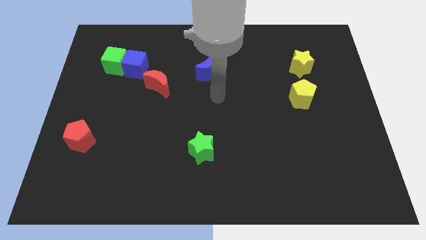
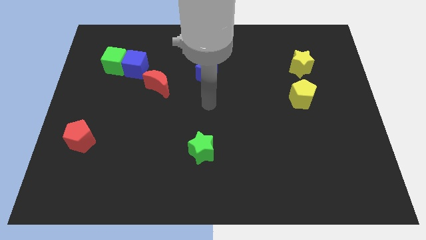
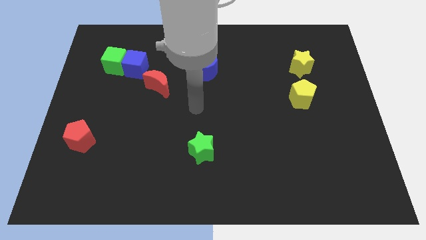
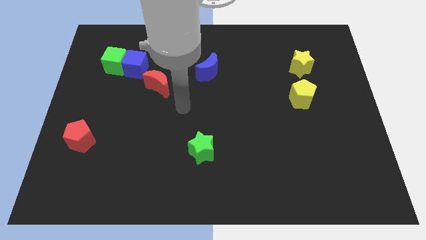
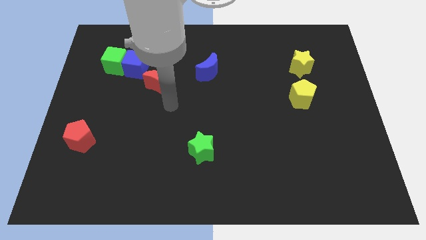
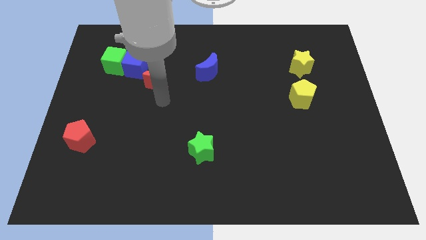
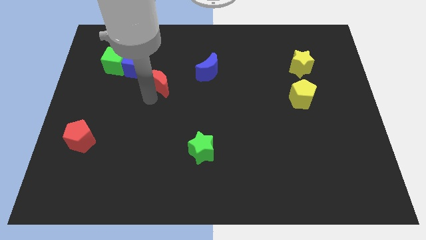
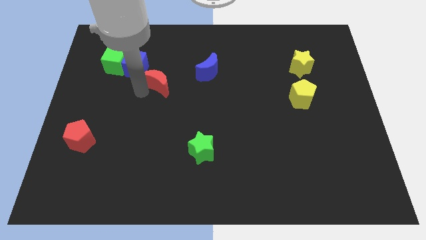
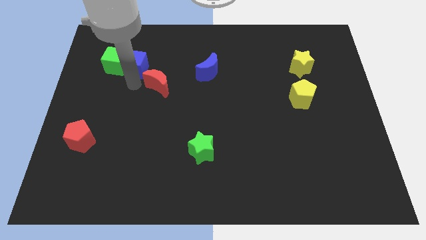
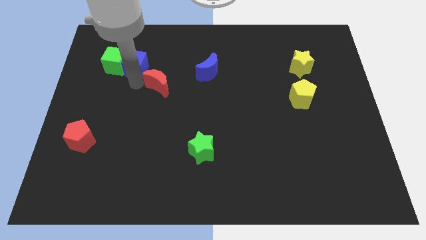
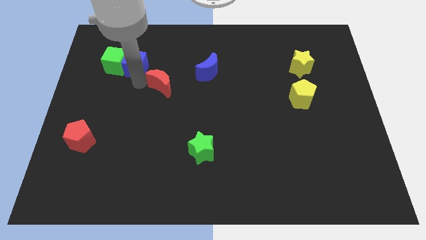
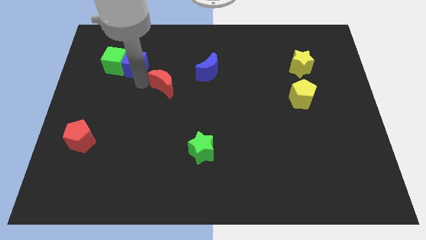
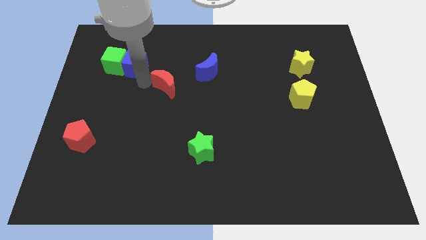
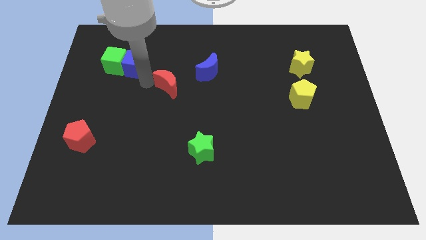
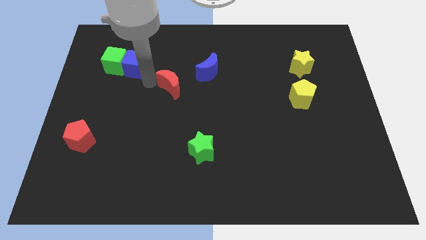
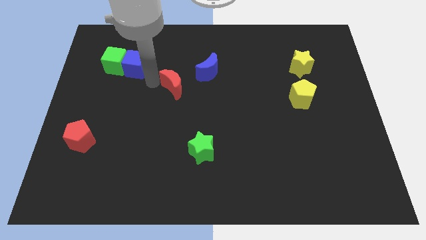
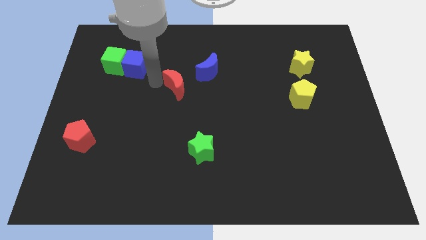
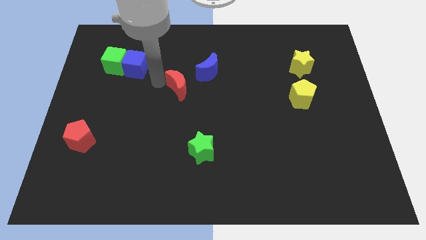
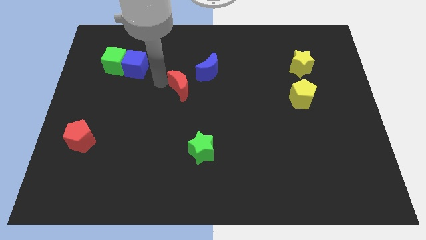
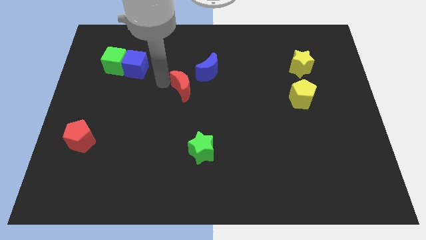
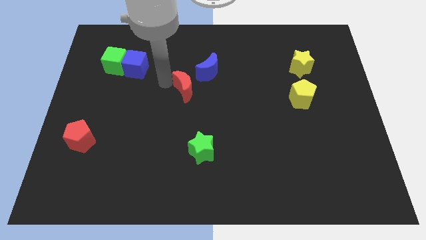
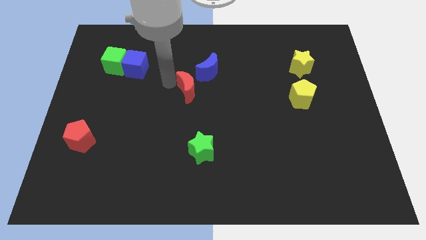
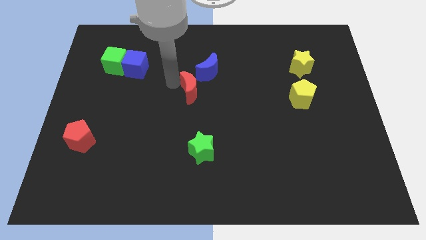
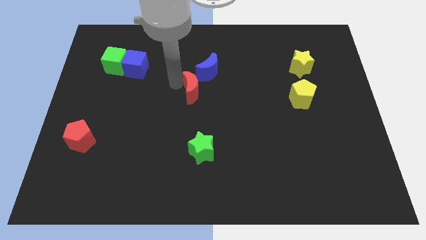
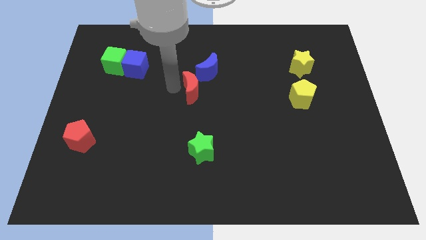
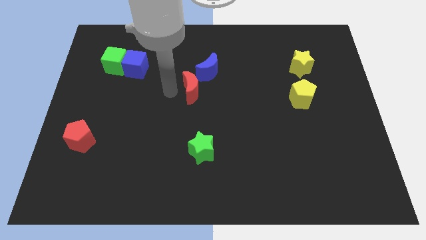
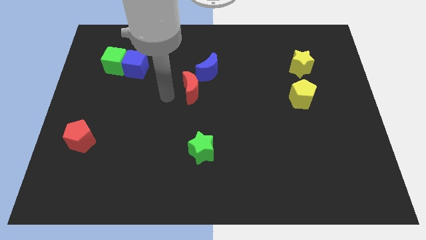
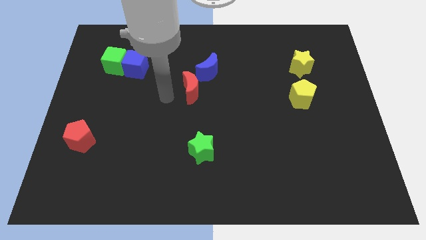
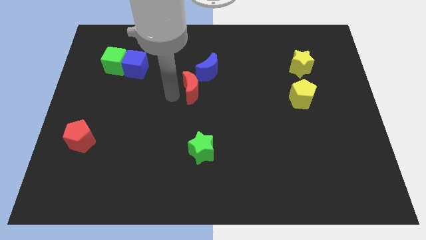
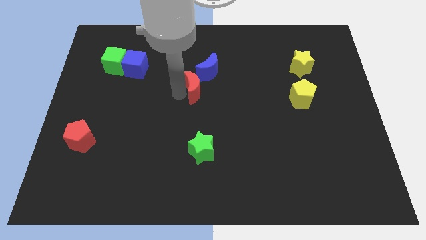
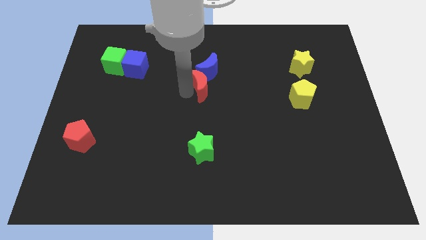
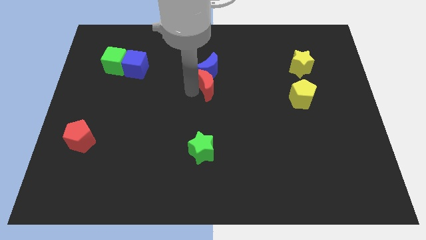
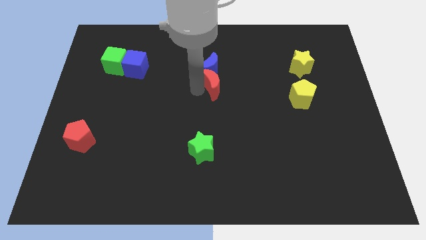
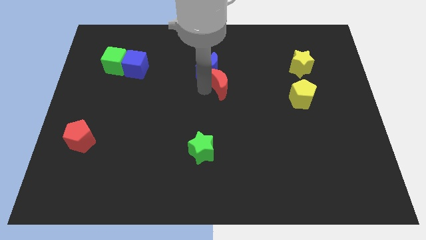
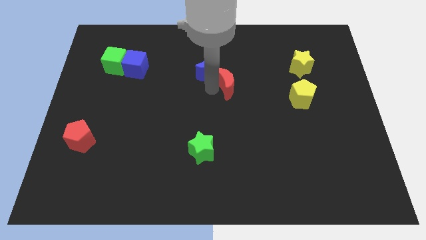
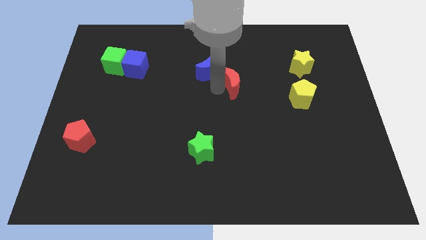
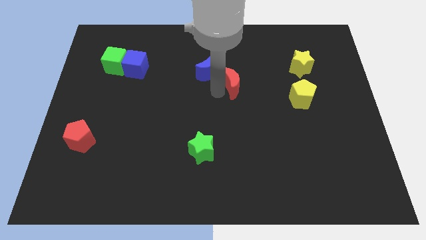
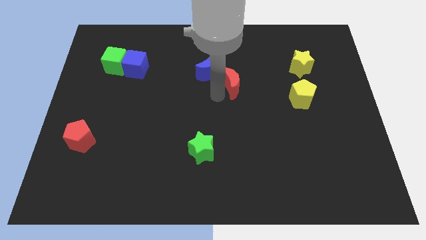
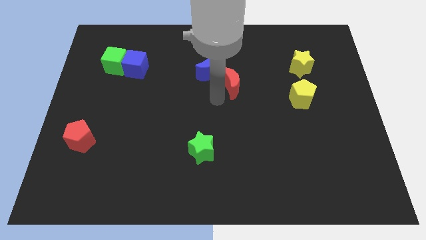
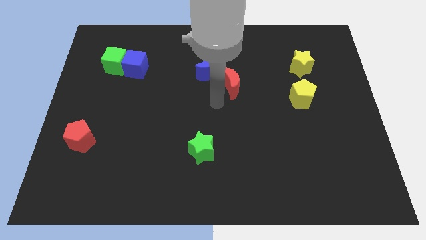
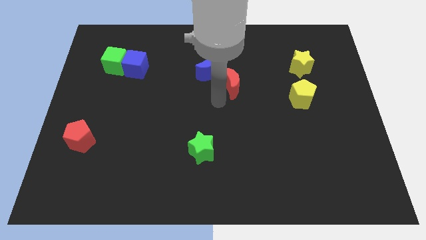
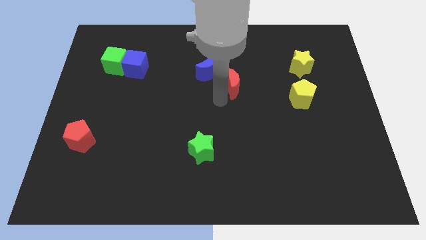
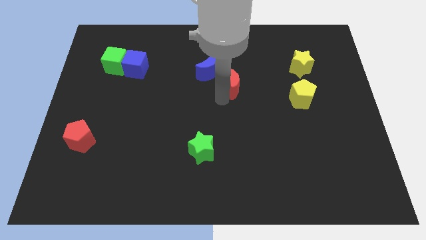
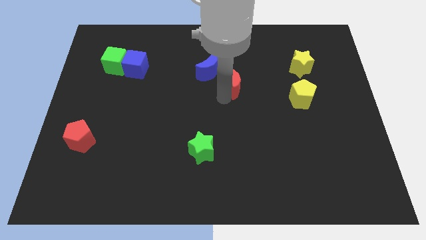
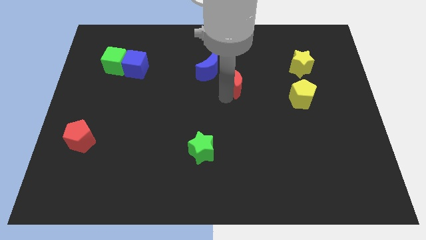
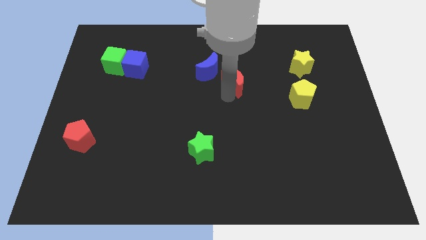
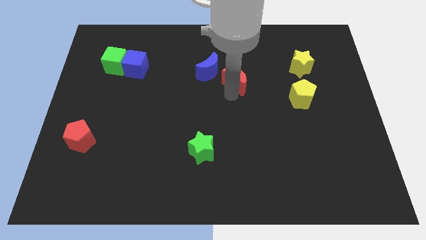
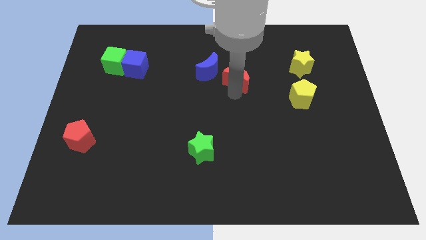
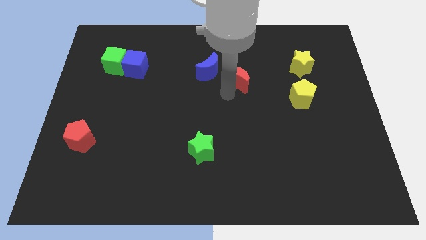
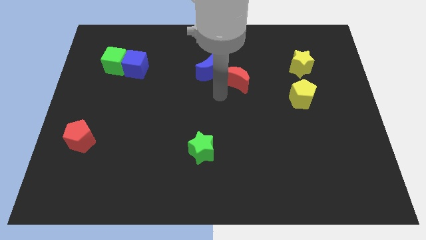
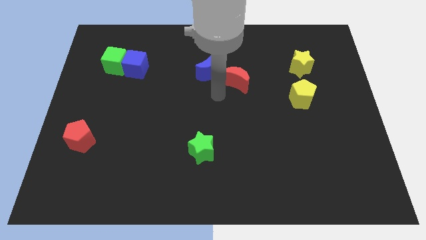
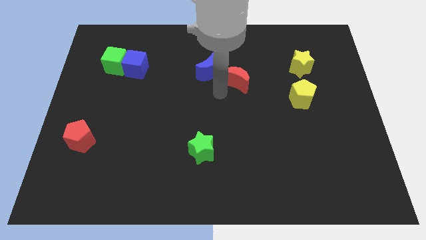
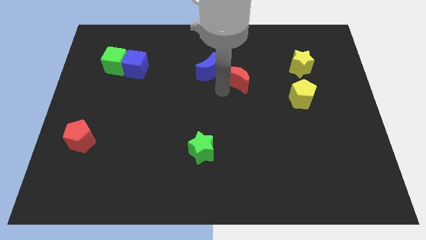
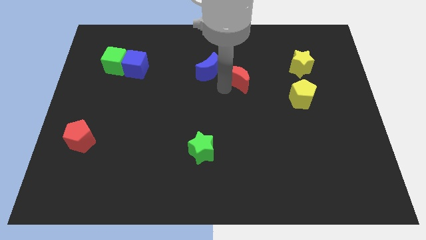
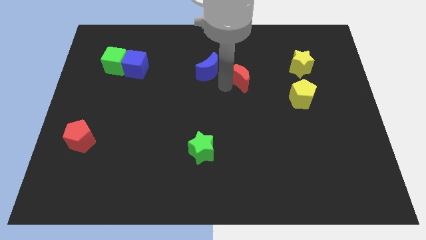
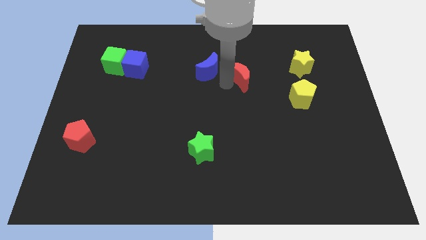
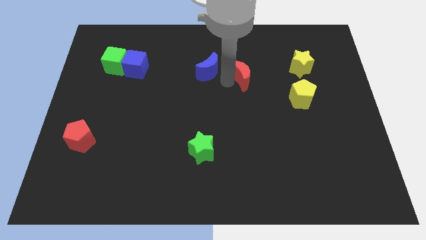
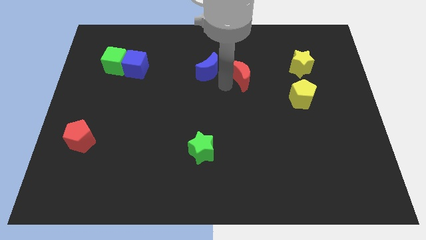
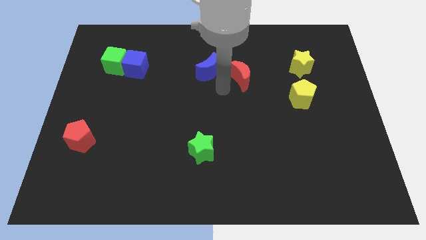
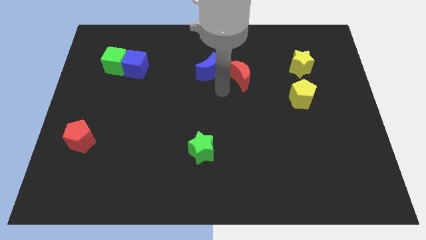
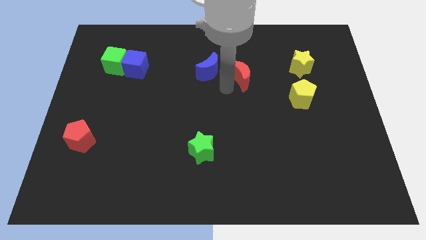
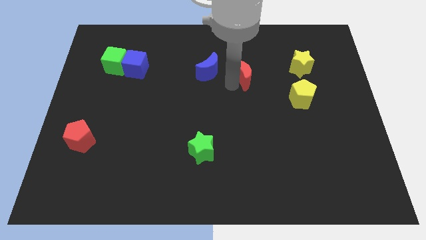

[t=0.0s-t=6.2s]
slide the red moon to the left of the yellow star

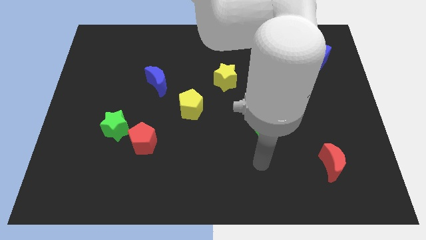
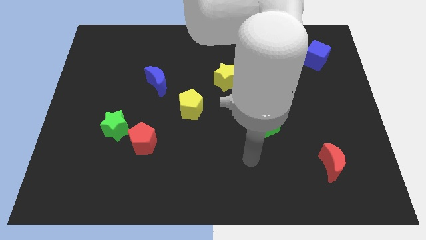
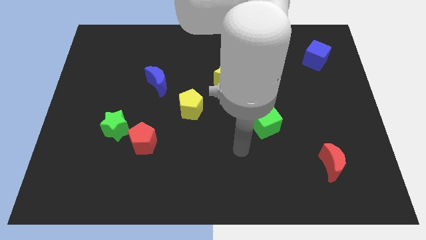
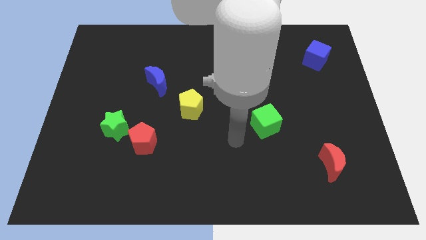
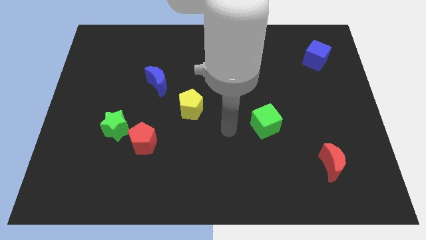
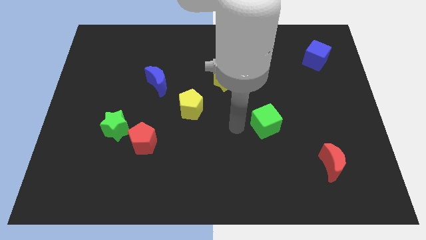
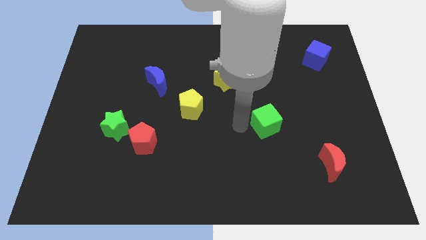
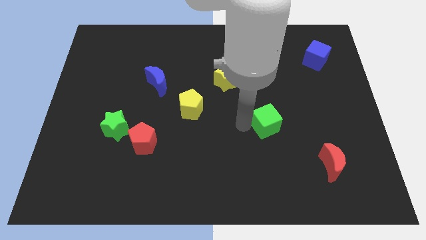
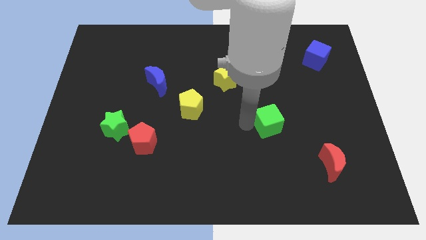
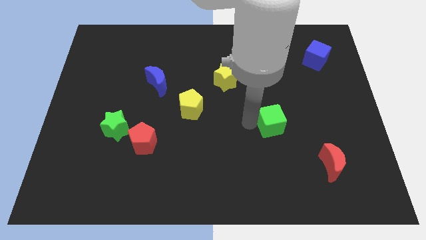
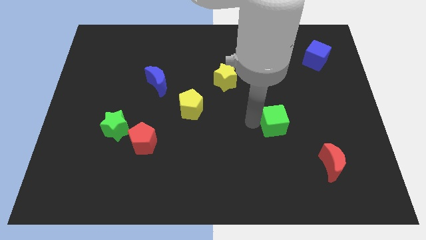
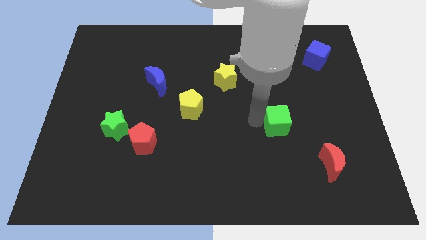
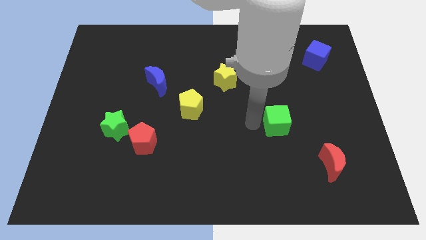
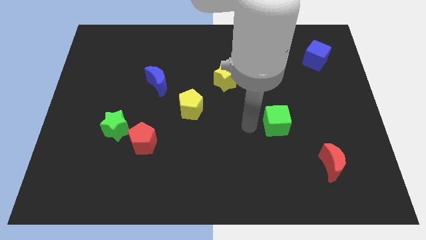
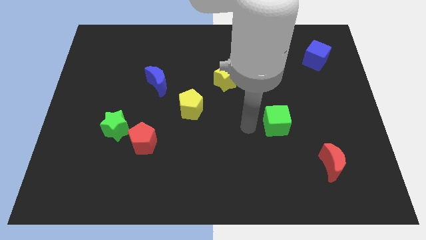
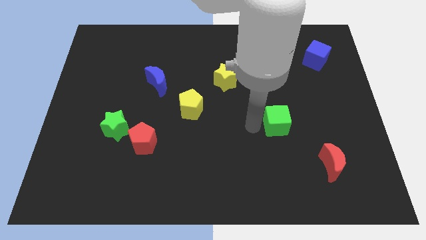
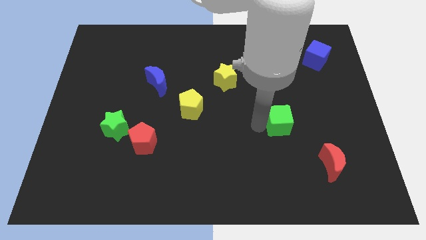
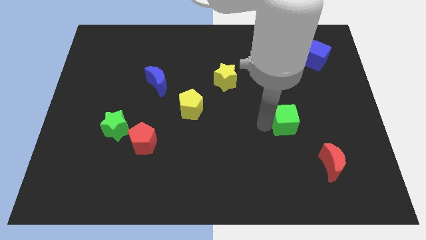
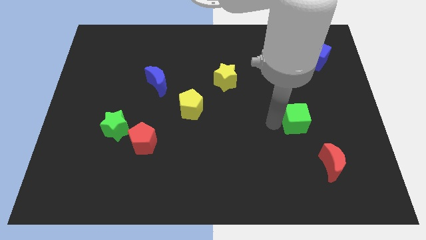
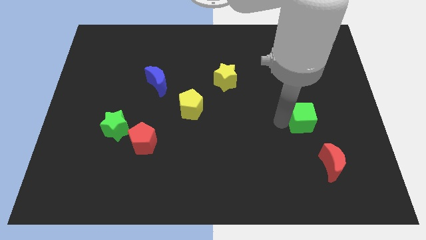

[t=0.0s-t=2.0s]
move the green cube above the red moon
